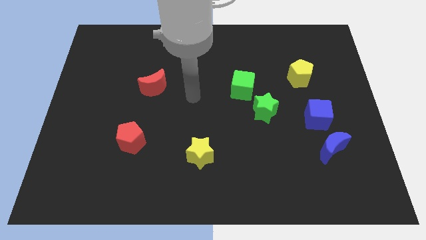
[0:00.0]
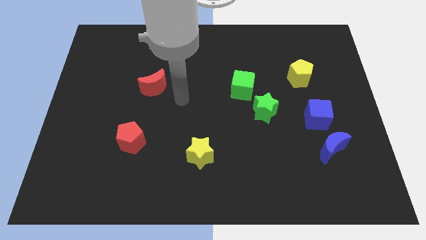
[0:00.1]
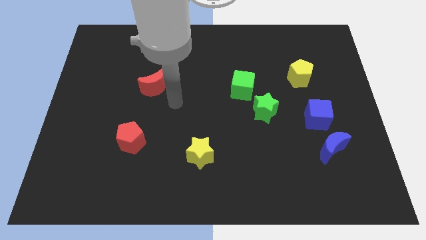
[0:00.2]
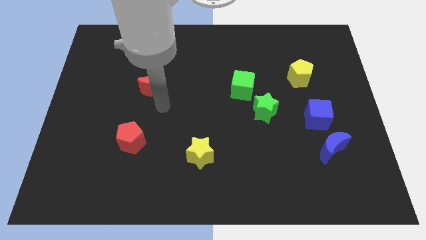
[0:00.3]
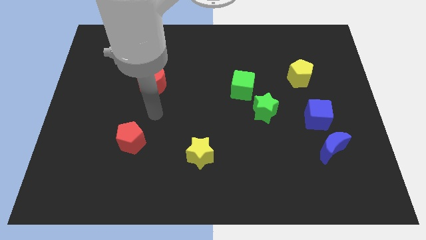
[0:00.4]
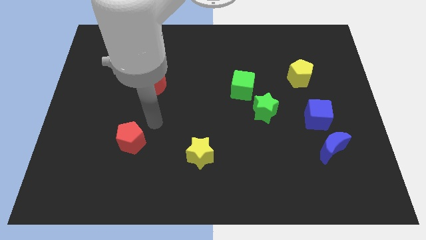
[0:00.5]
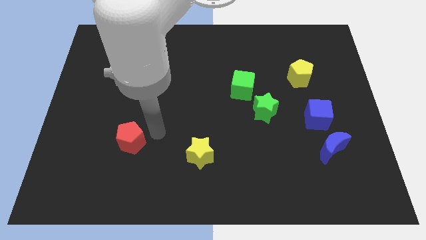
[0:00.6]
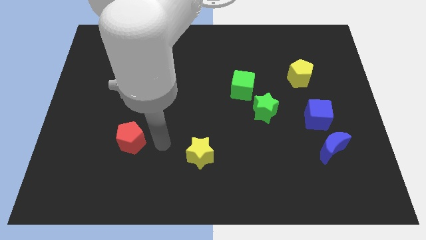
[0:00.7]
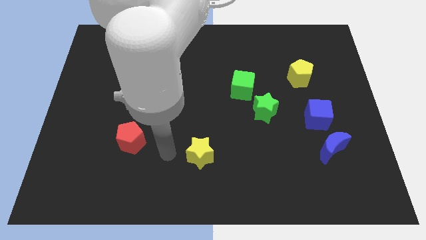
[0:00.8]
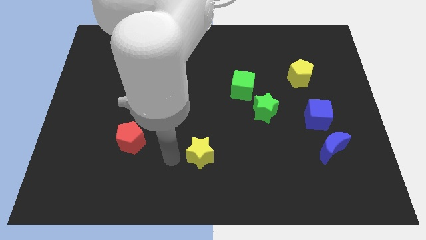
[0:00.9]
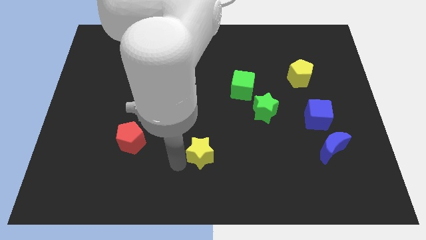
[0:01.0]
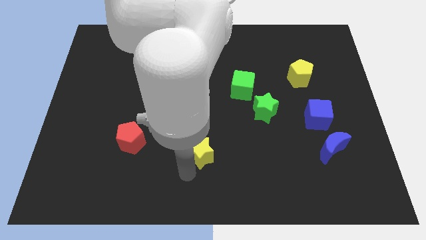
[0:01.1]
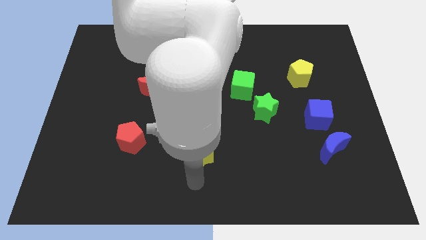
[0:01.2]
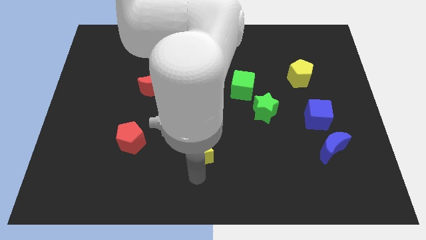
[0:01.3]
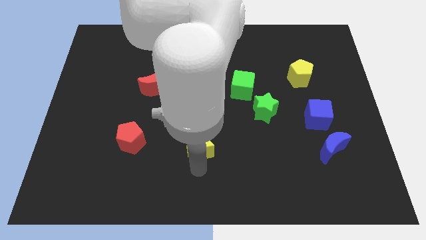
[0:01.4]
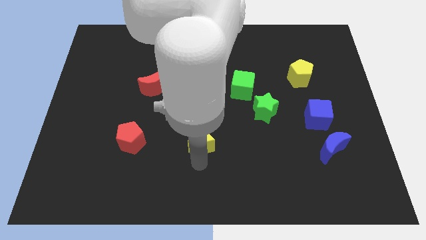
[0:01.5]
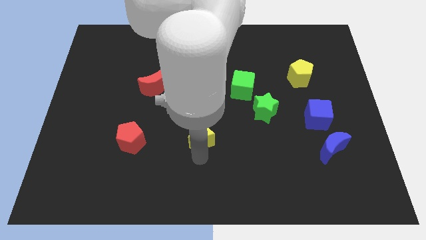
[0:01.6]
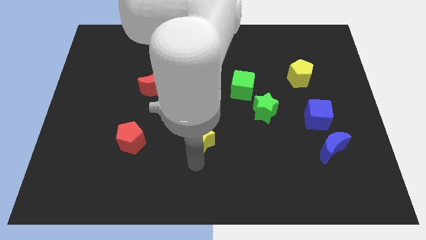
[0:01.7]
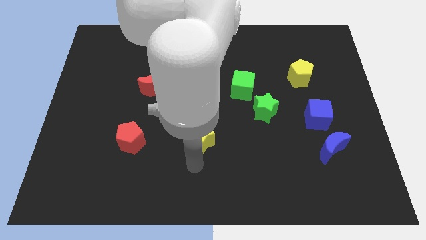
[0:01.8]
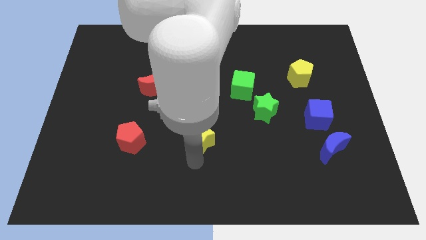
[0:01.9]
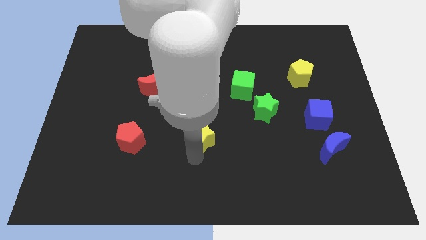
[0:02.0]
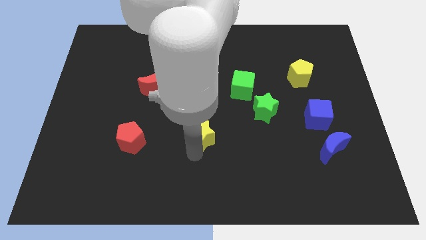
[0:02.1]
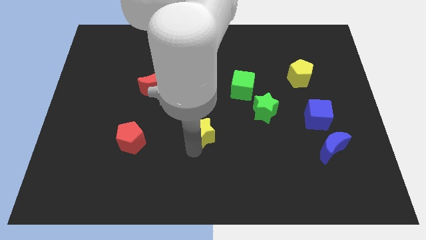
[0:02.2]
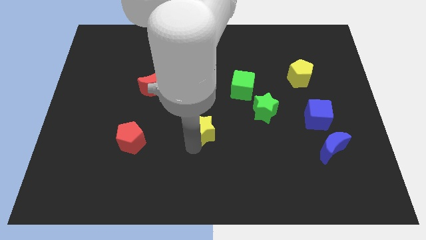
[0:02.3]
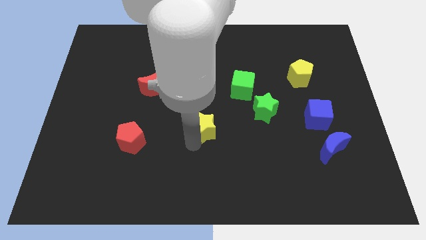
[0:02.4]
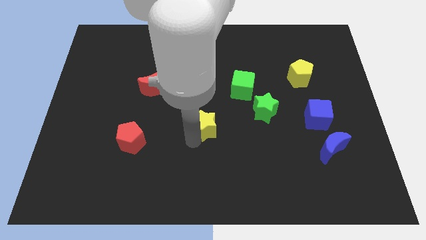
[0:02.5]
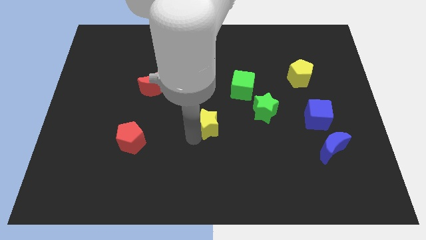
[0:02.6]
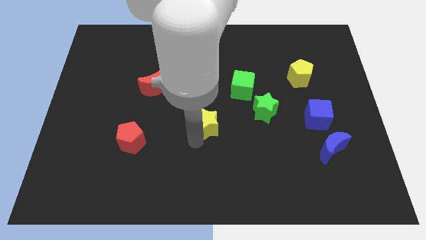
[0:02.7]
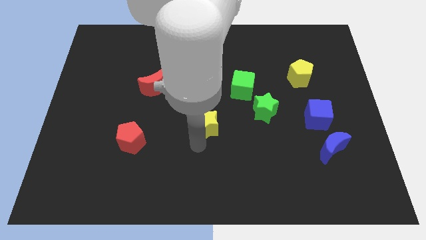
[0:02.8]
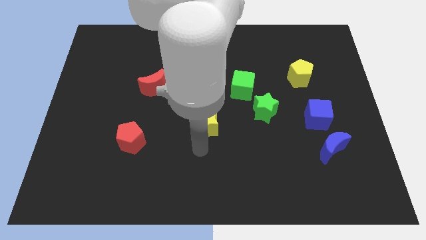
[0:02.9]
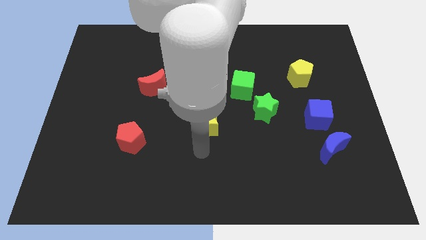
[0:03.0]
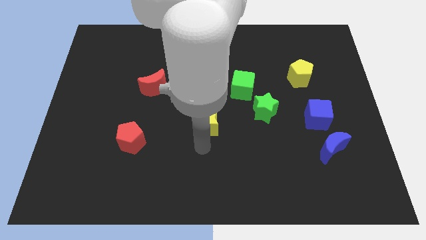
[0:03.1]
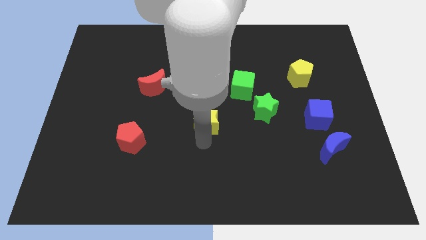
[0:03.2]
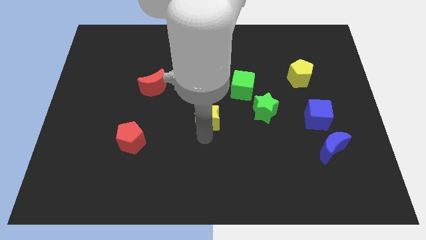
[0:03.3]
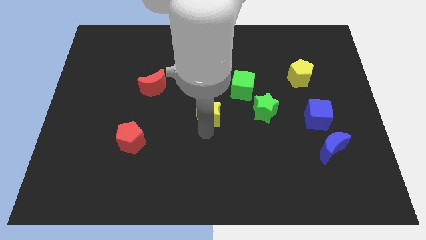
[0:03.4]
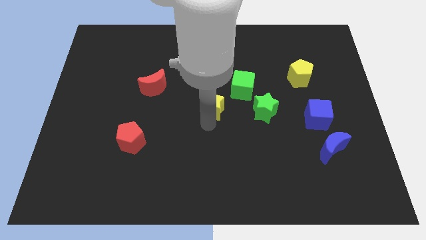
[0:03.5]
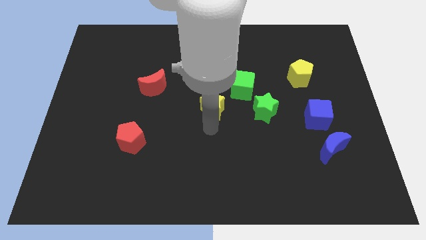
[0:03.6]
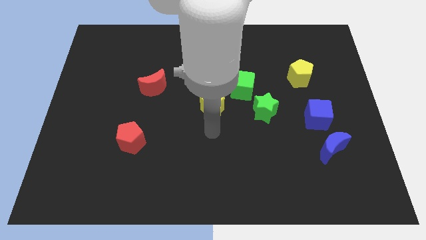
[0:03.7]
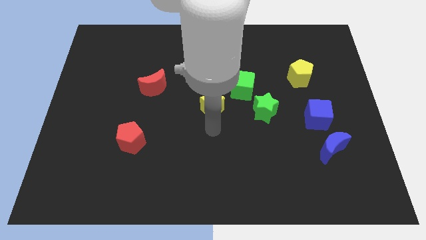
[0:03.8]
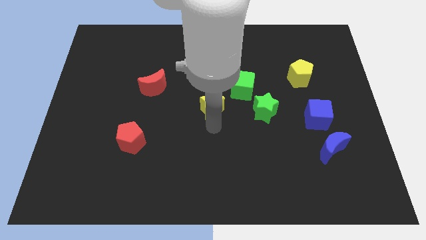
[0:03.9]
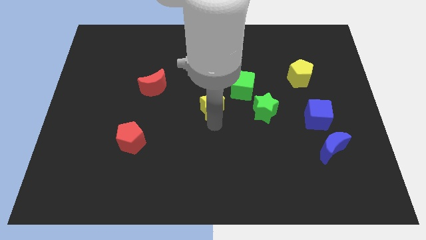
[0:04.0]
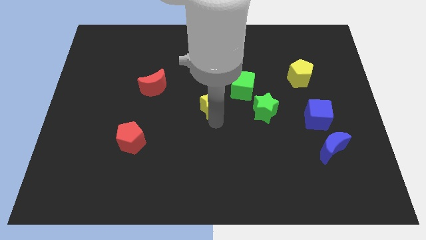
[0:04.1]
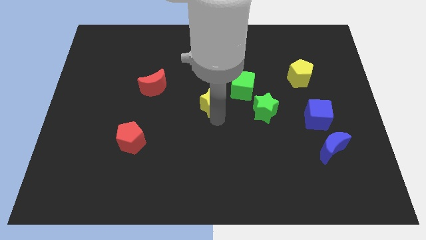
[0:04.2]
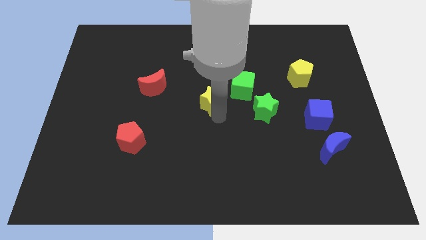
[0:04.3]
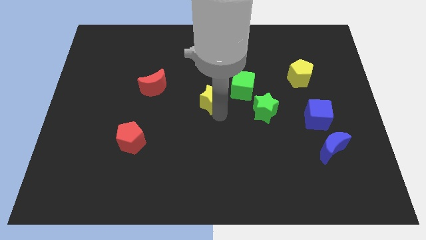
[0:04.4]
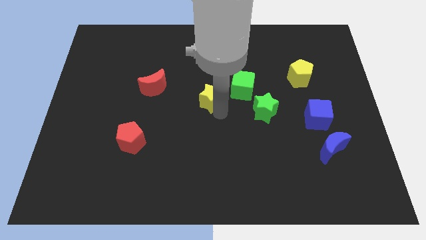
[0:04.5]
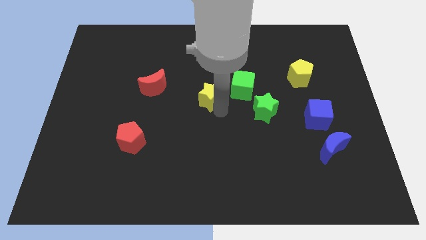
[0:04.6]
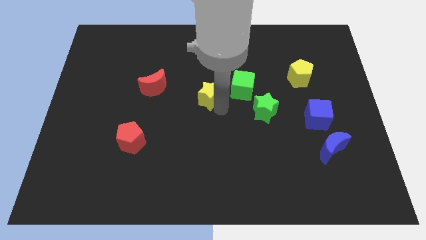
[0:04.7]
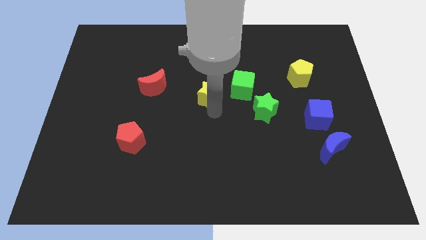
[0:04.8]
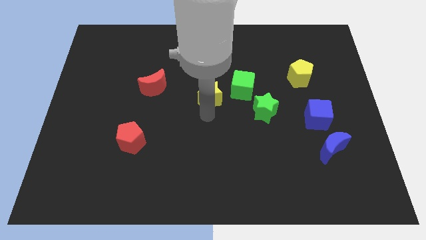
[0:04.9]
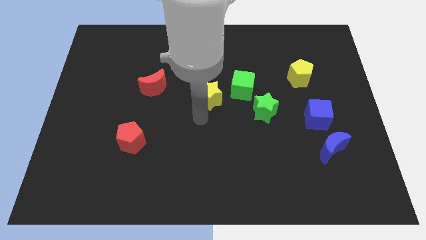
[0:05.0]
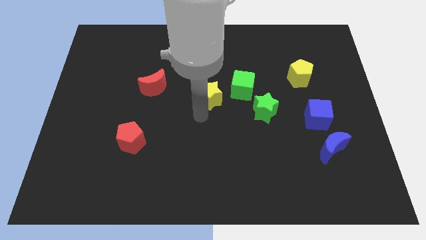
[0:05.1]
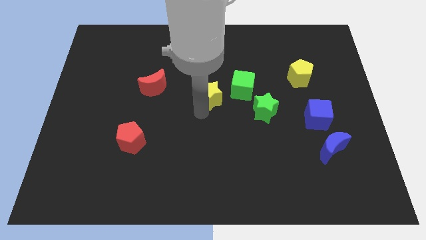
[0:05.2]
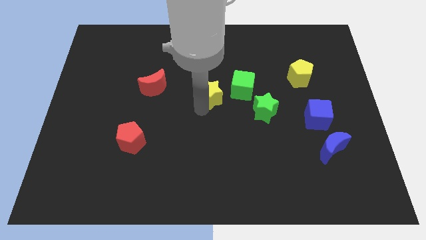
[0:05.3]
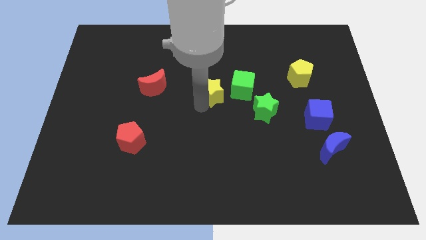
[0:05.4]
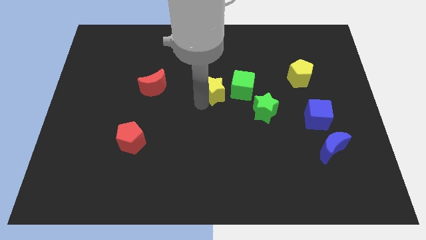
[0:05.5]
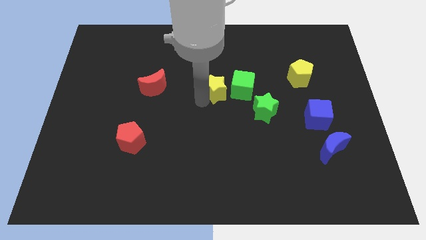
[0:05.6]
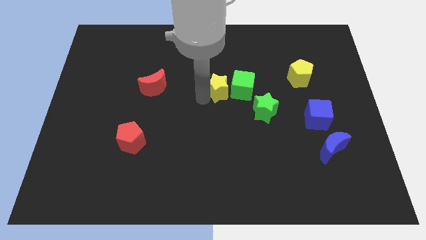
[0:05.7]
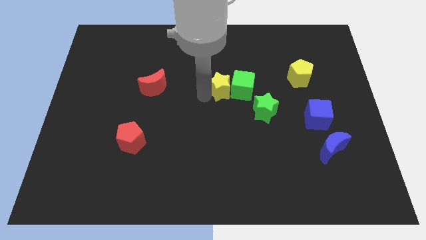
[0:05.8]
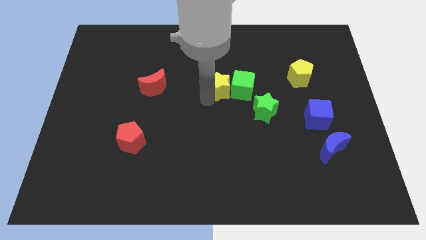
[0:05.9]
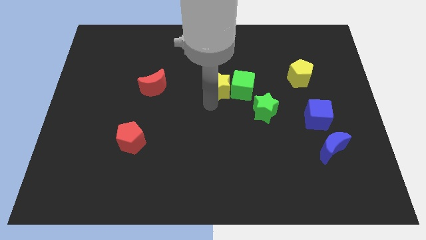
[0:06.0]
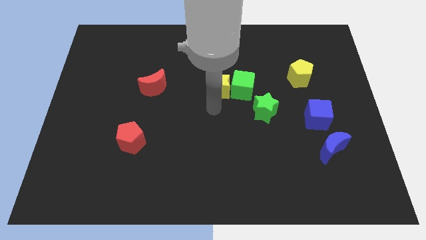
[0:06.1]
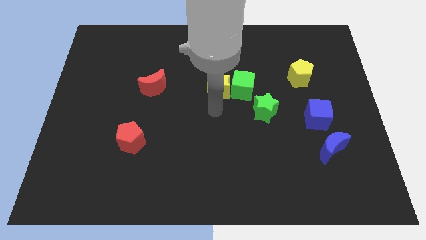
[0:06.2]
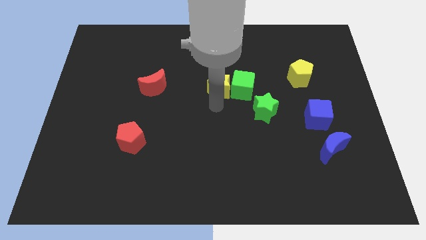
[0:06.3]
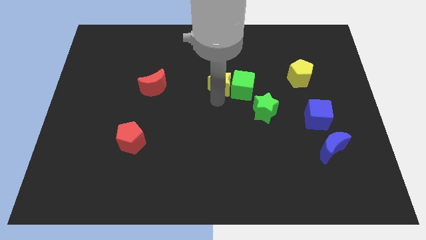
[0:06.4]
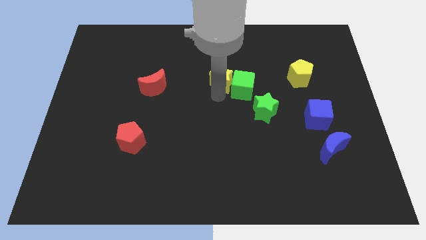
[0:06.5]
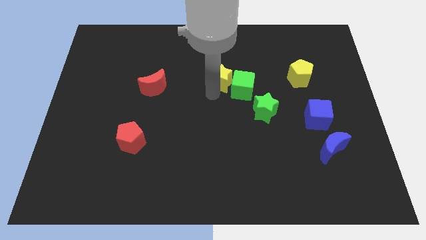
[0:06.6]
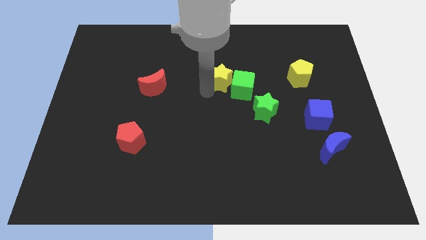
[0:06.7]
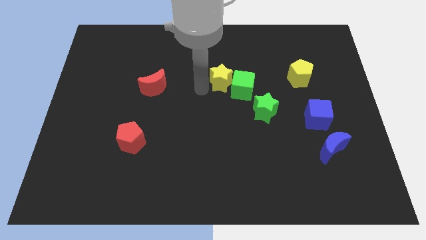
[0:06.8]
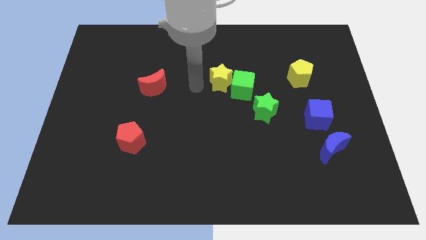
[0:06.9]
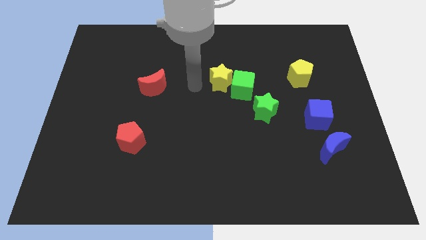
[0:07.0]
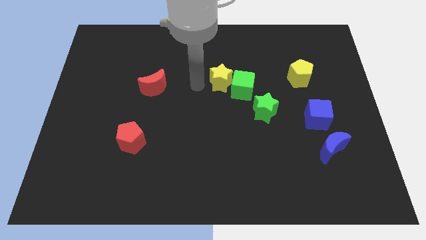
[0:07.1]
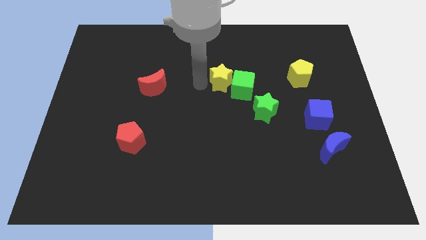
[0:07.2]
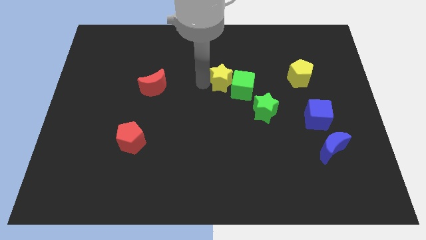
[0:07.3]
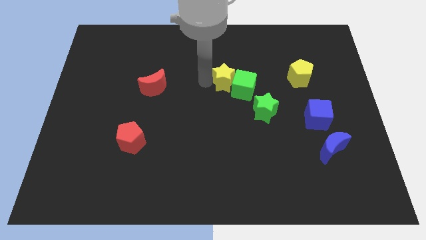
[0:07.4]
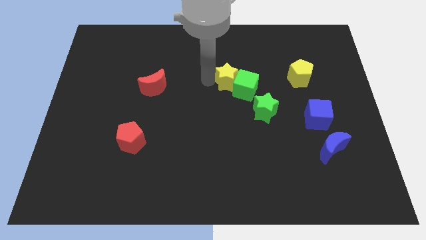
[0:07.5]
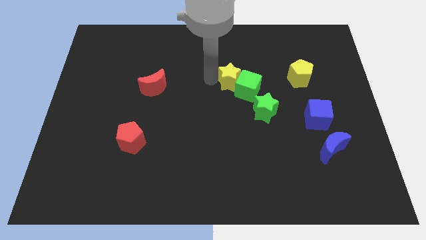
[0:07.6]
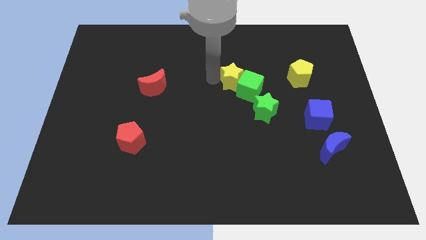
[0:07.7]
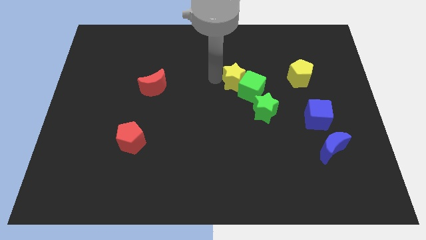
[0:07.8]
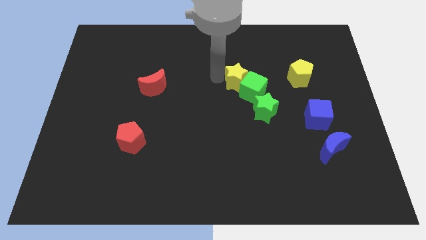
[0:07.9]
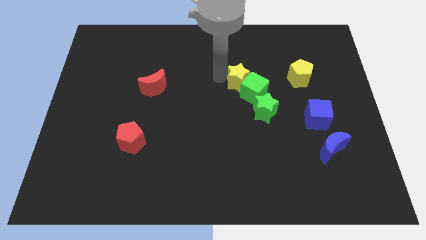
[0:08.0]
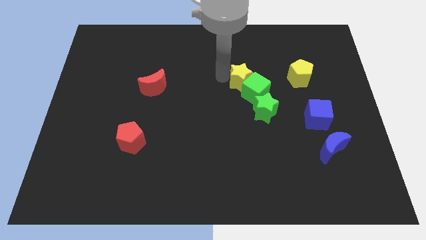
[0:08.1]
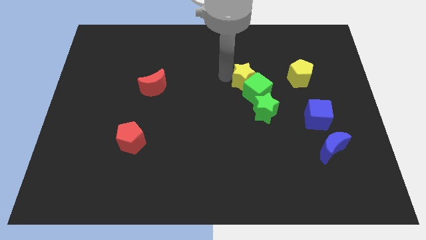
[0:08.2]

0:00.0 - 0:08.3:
slide the yellow star to the top side of the green star
